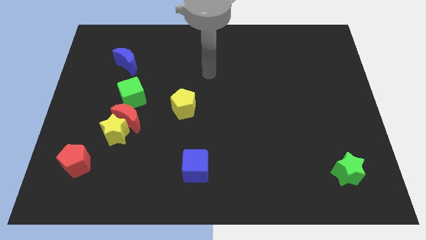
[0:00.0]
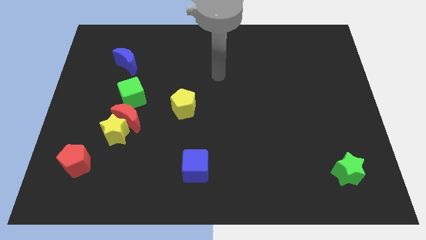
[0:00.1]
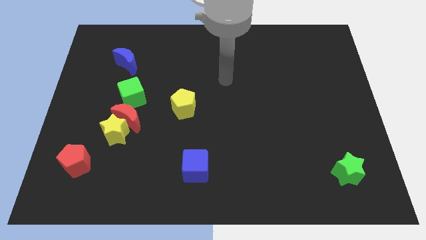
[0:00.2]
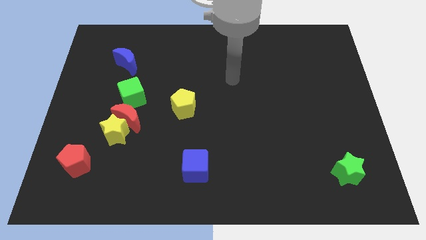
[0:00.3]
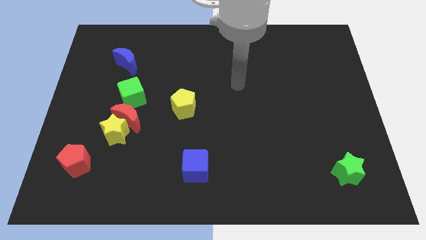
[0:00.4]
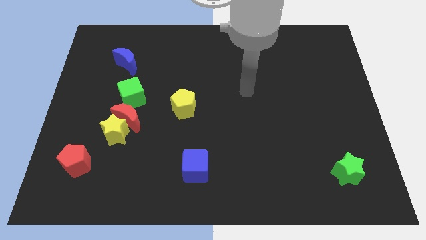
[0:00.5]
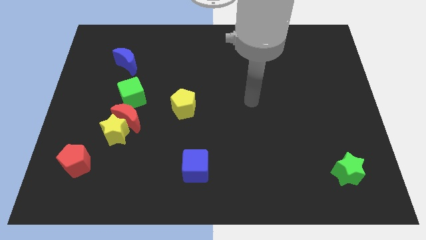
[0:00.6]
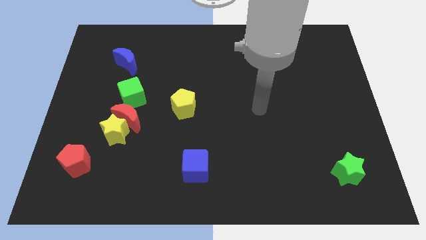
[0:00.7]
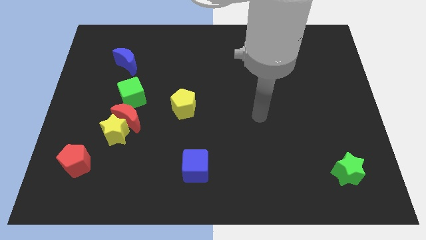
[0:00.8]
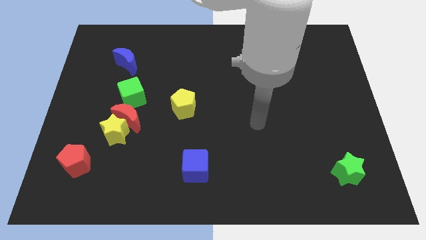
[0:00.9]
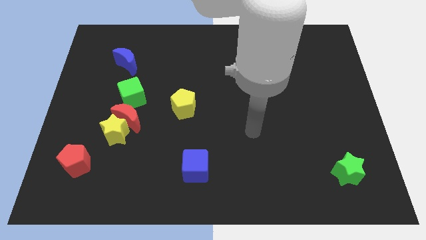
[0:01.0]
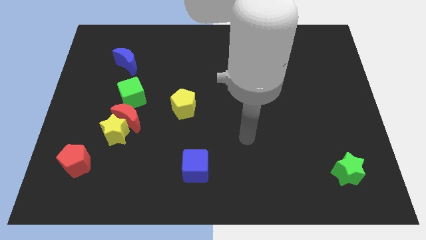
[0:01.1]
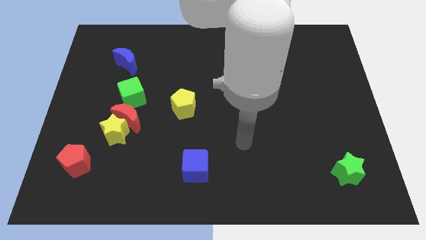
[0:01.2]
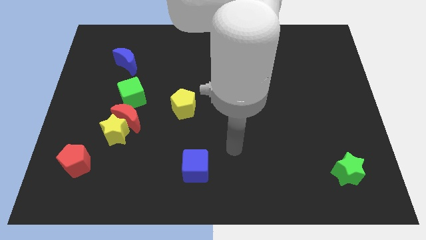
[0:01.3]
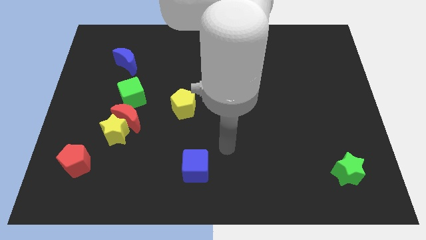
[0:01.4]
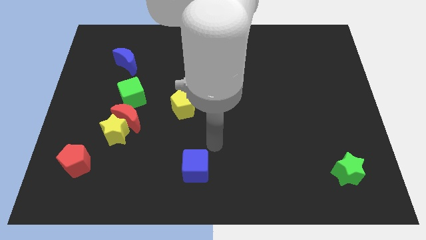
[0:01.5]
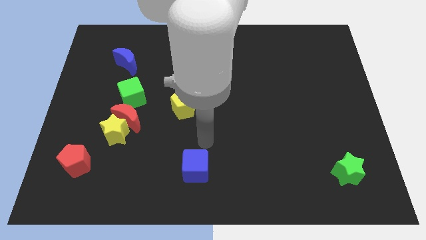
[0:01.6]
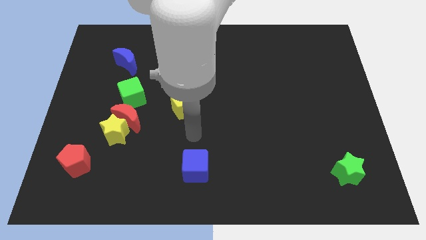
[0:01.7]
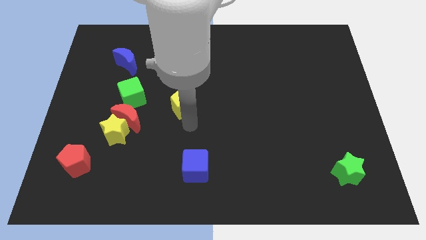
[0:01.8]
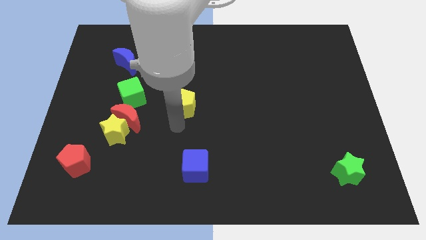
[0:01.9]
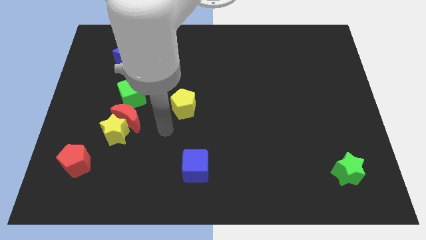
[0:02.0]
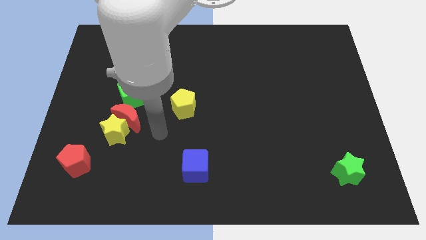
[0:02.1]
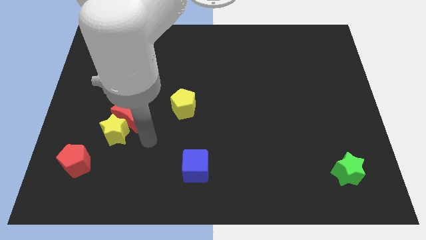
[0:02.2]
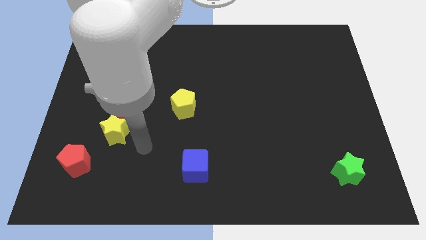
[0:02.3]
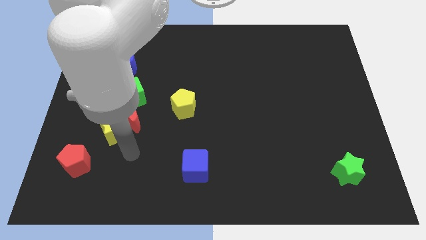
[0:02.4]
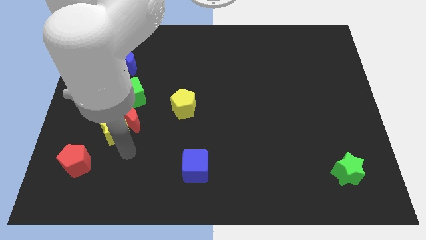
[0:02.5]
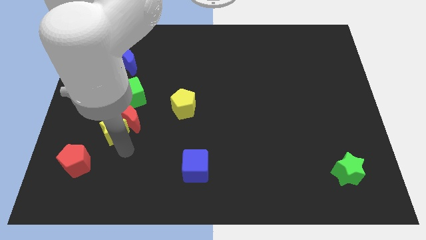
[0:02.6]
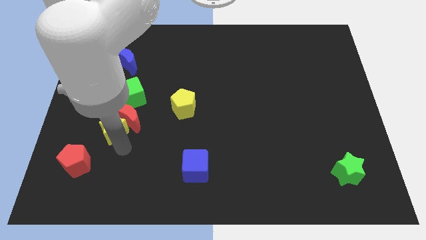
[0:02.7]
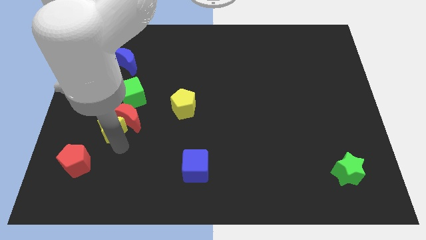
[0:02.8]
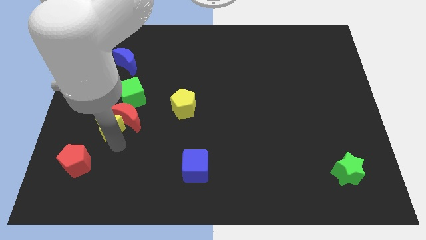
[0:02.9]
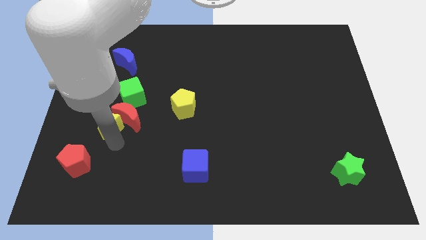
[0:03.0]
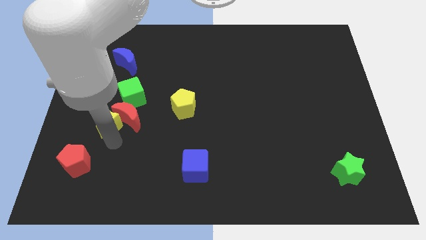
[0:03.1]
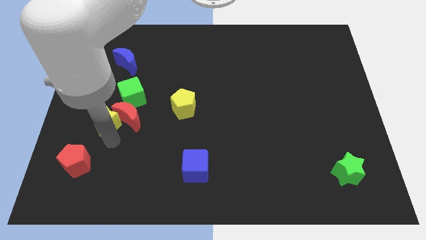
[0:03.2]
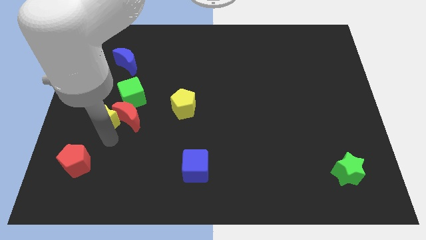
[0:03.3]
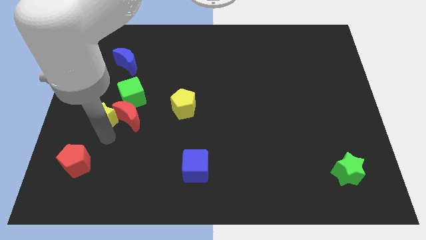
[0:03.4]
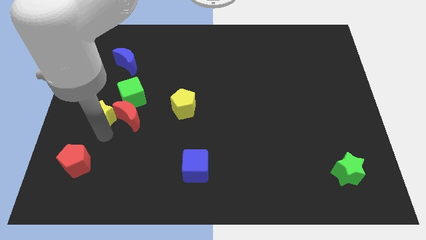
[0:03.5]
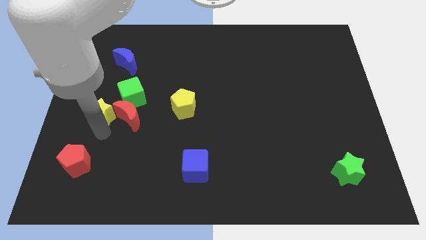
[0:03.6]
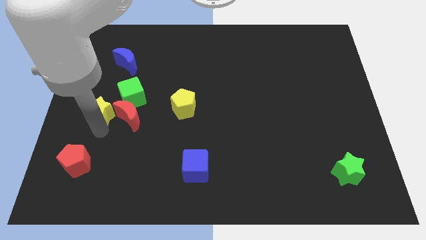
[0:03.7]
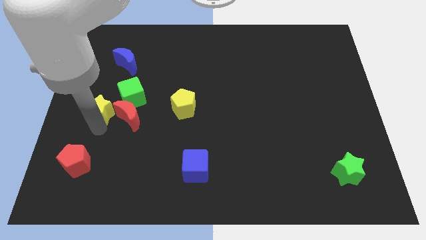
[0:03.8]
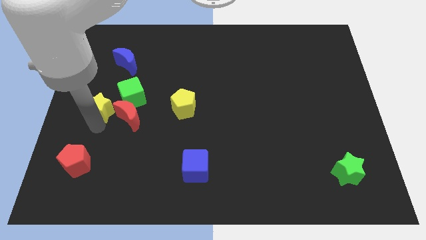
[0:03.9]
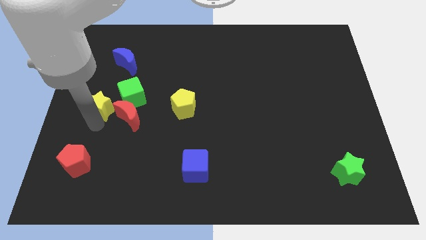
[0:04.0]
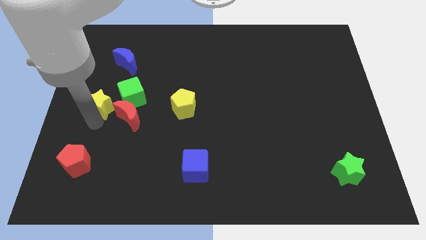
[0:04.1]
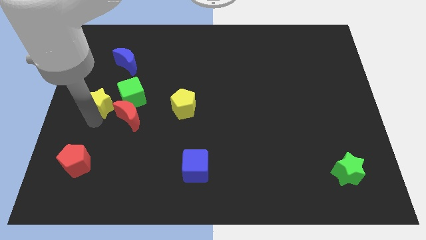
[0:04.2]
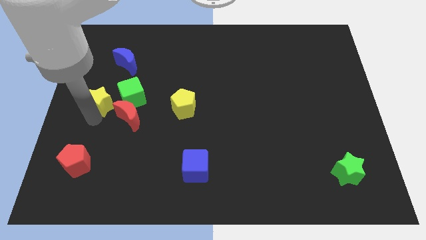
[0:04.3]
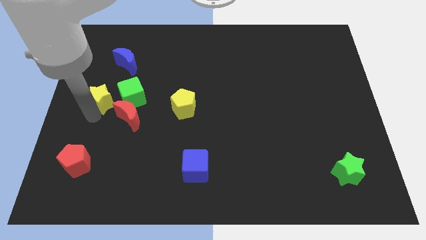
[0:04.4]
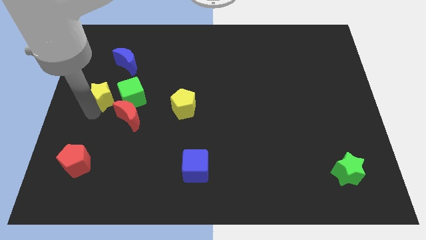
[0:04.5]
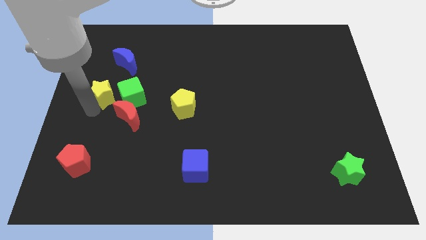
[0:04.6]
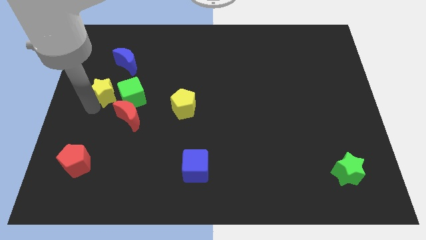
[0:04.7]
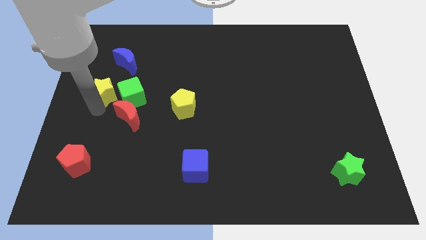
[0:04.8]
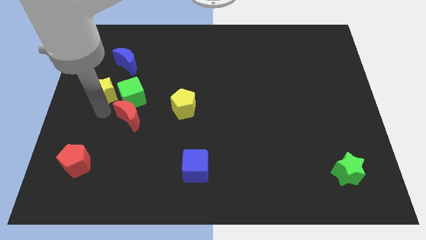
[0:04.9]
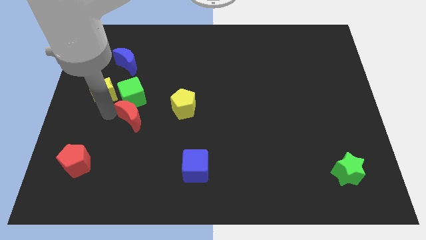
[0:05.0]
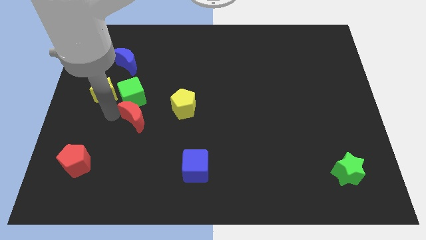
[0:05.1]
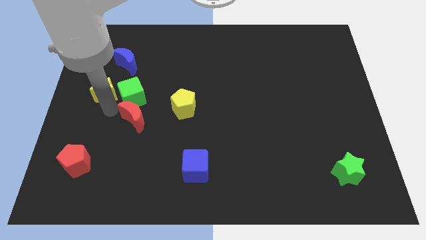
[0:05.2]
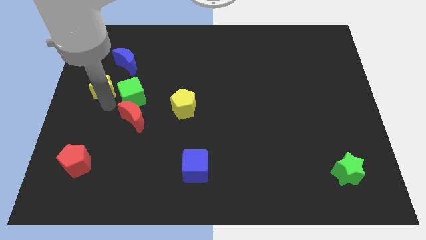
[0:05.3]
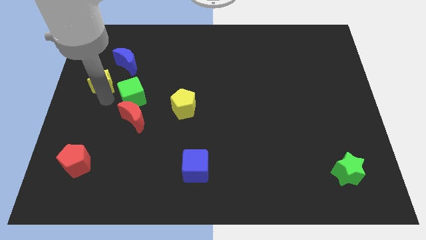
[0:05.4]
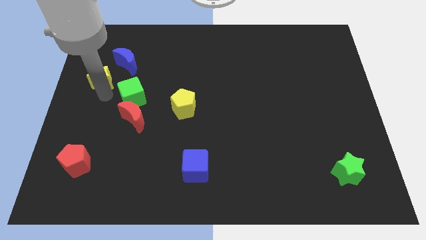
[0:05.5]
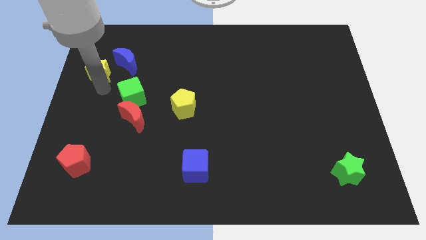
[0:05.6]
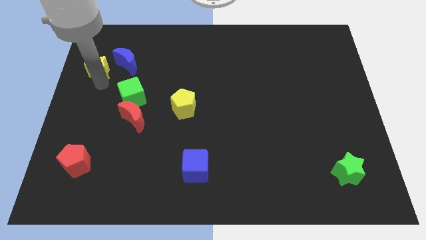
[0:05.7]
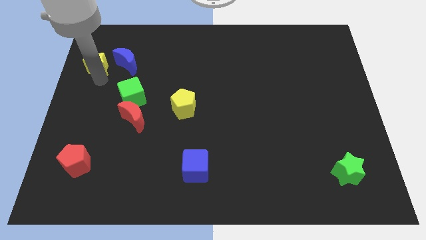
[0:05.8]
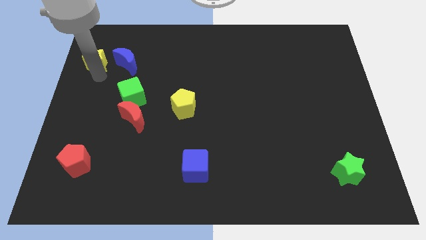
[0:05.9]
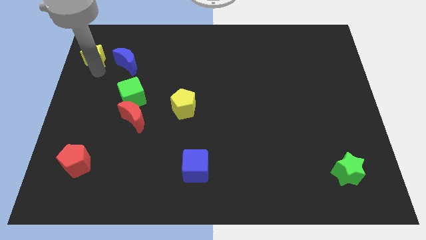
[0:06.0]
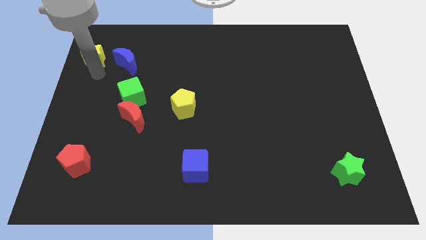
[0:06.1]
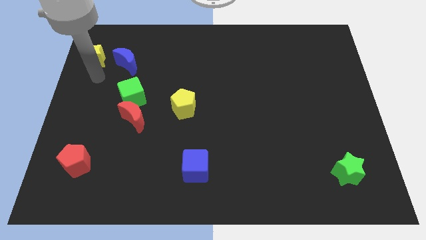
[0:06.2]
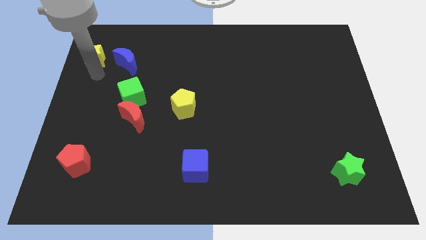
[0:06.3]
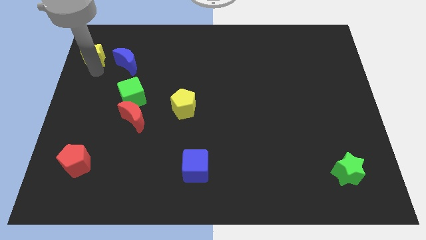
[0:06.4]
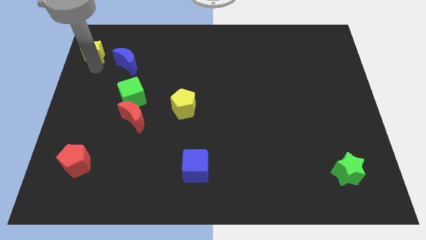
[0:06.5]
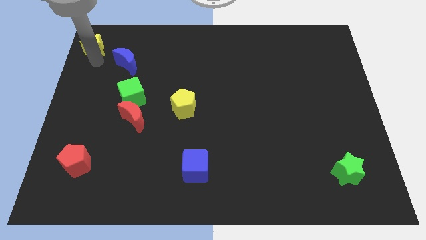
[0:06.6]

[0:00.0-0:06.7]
put the yellow star to the upper left corner

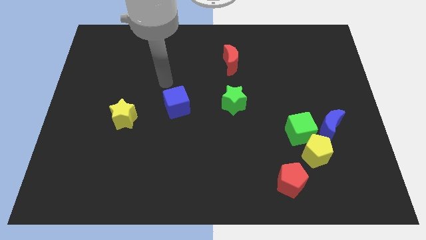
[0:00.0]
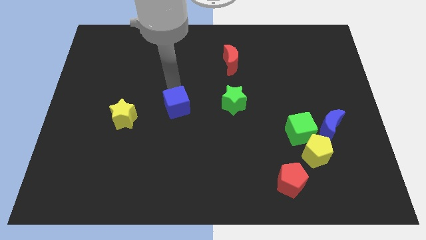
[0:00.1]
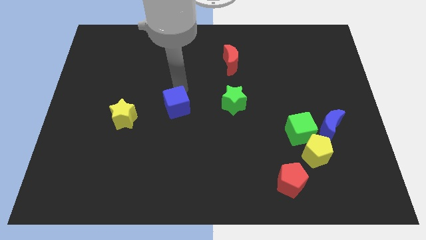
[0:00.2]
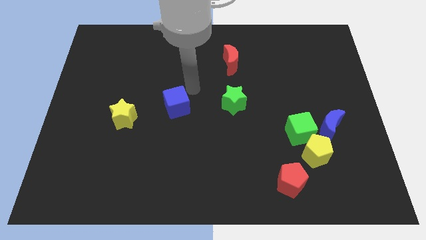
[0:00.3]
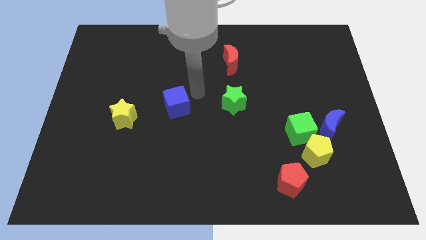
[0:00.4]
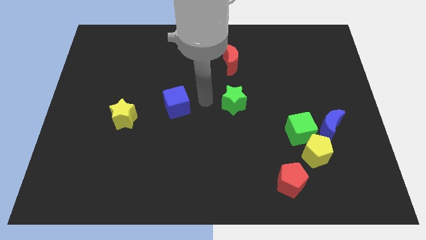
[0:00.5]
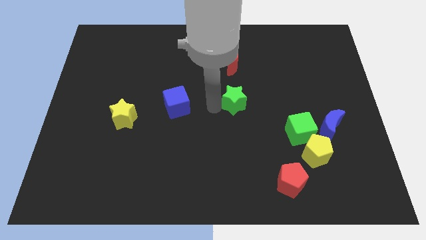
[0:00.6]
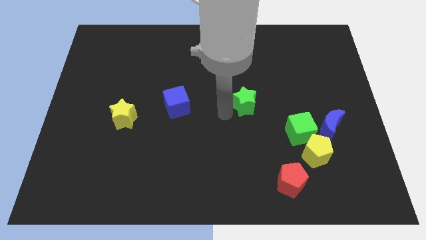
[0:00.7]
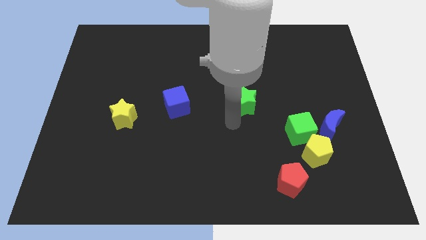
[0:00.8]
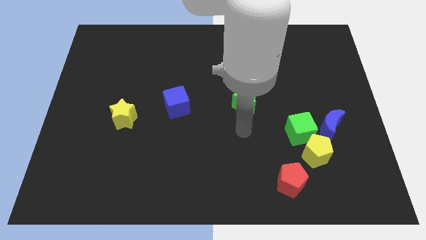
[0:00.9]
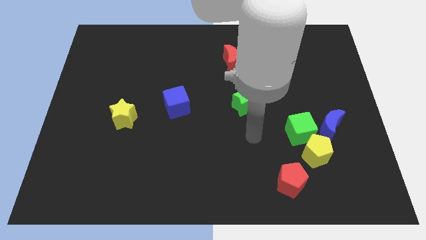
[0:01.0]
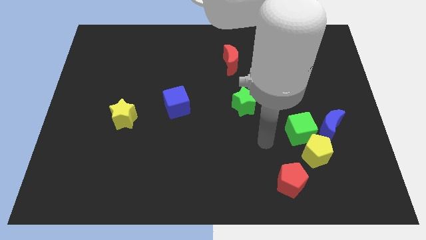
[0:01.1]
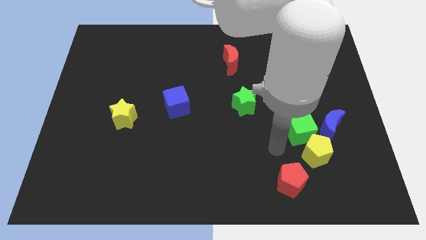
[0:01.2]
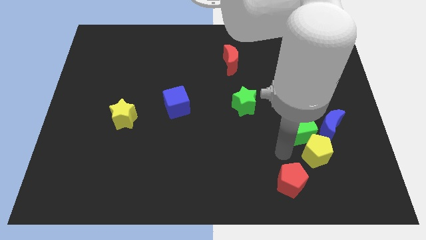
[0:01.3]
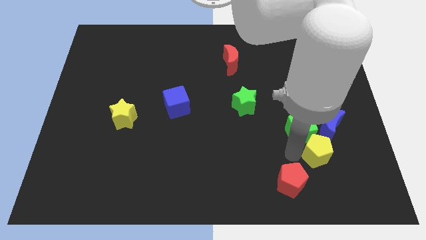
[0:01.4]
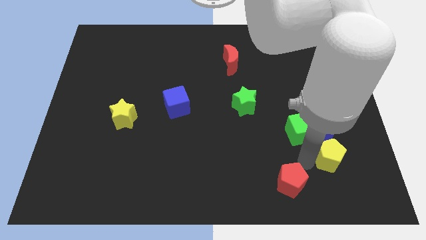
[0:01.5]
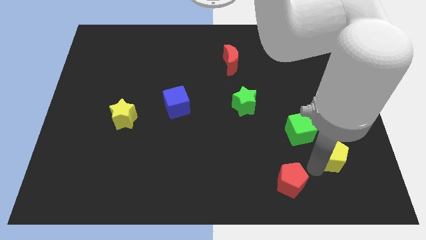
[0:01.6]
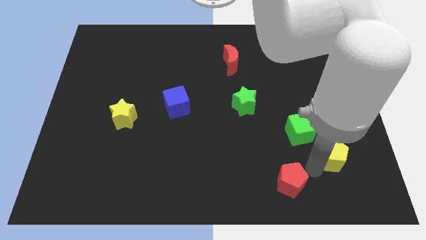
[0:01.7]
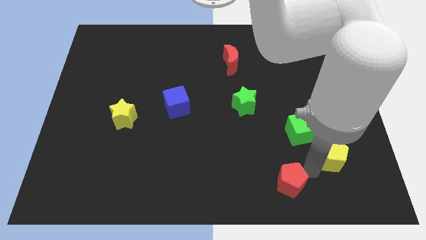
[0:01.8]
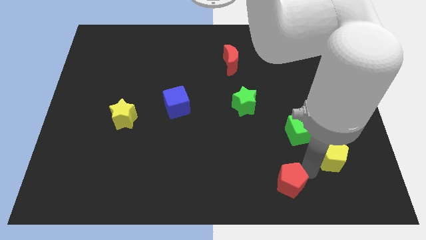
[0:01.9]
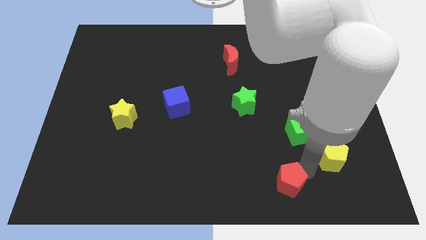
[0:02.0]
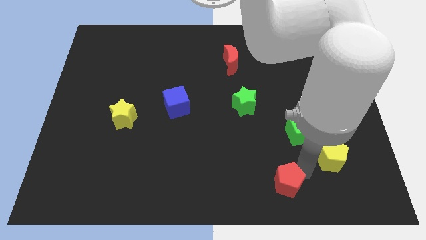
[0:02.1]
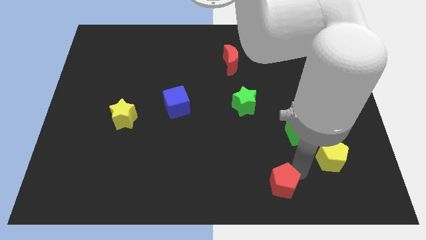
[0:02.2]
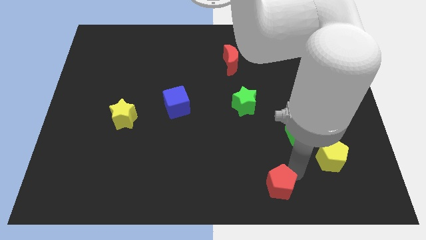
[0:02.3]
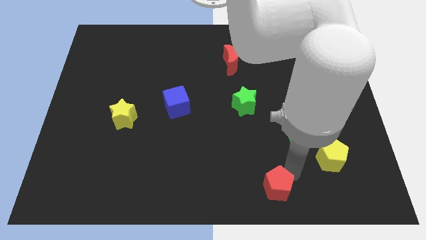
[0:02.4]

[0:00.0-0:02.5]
slide the red pentagon to the bottom side
